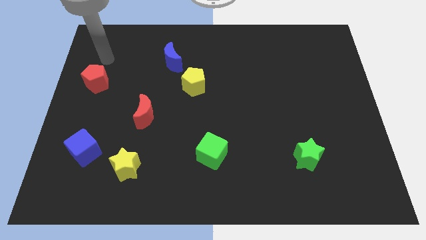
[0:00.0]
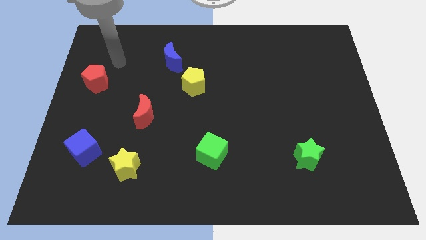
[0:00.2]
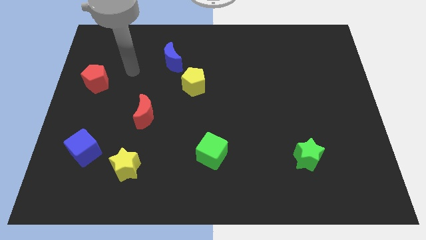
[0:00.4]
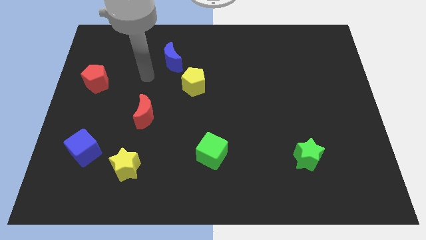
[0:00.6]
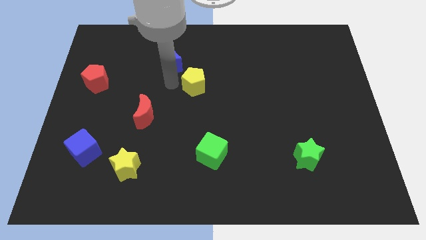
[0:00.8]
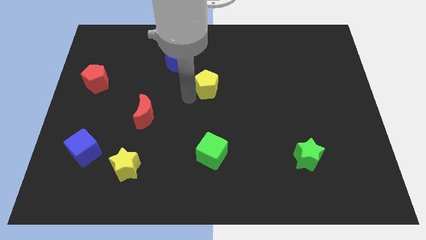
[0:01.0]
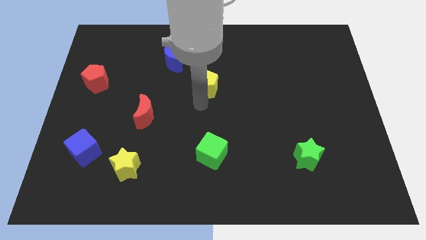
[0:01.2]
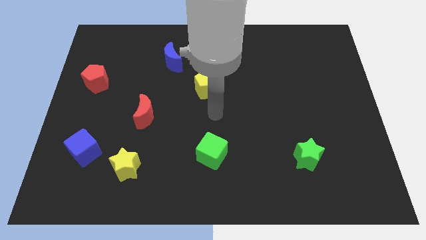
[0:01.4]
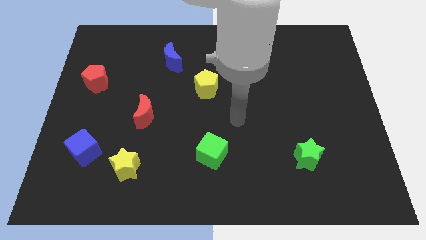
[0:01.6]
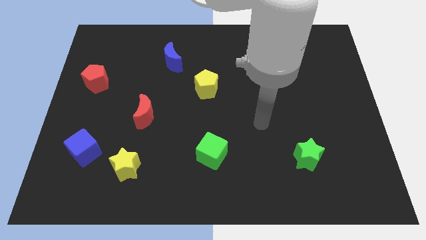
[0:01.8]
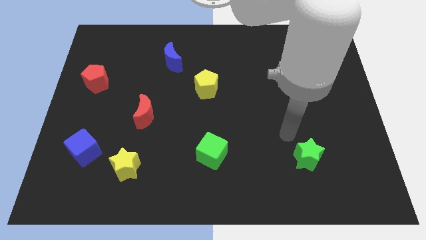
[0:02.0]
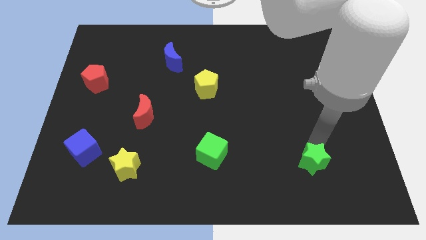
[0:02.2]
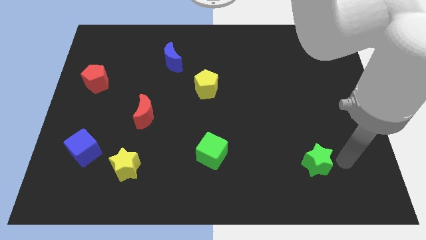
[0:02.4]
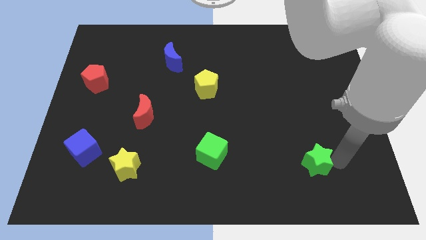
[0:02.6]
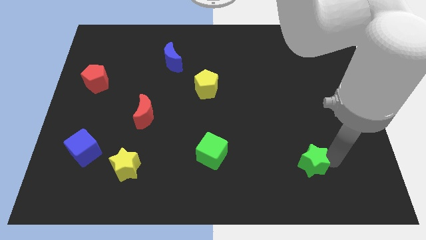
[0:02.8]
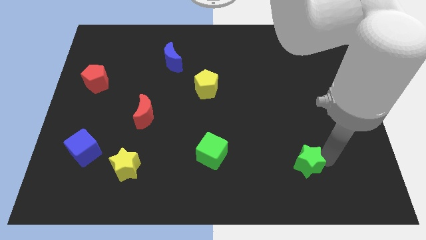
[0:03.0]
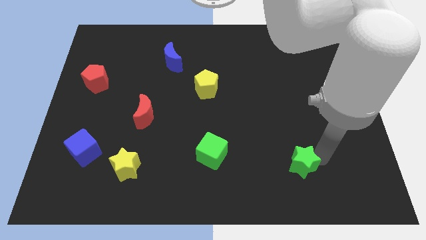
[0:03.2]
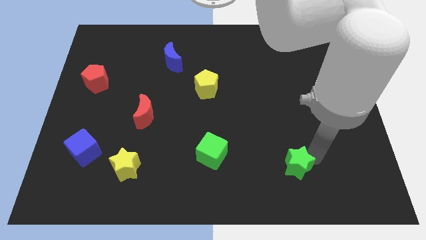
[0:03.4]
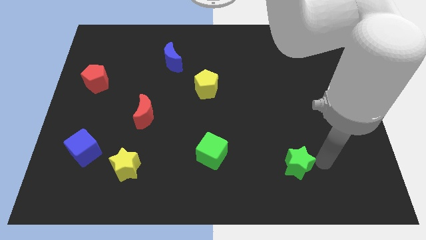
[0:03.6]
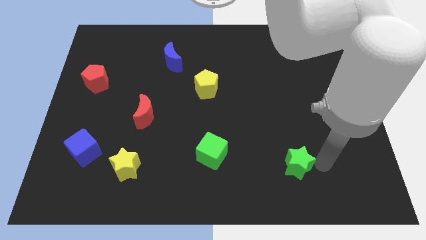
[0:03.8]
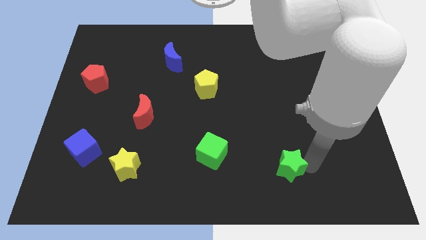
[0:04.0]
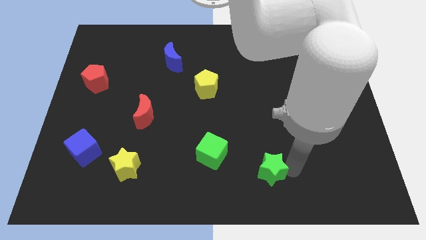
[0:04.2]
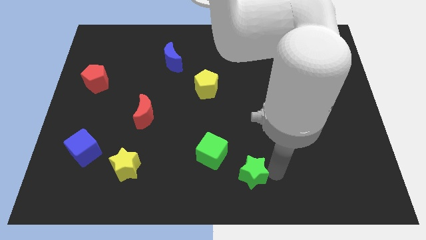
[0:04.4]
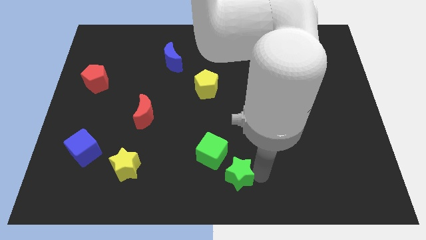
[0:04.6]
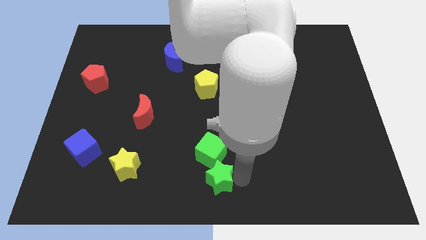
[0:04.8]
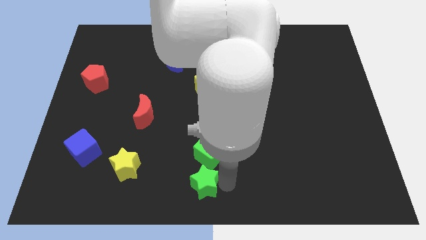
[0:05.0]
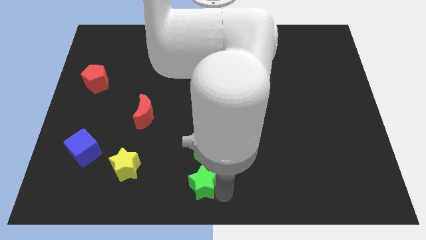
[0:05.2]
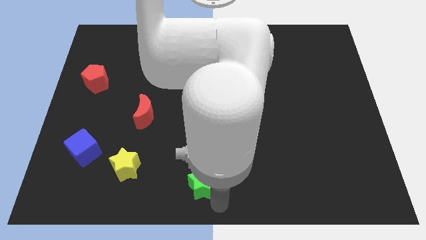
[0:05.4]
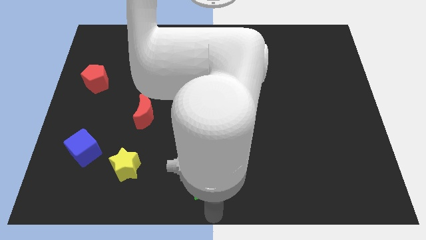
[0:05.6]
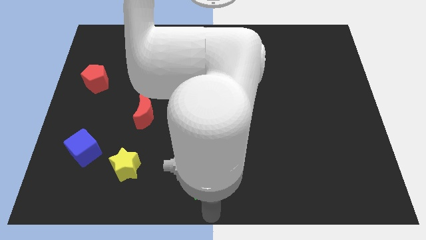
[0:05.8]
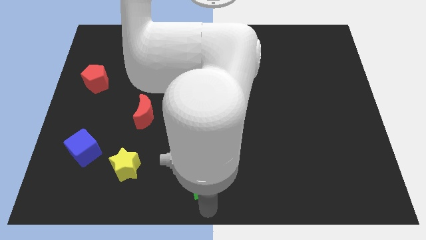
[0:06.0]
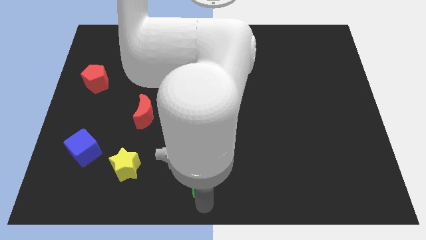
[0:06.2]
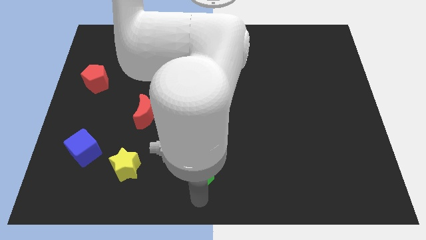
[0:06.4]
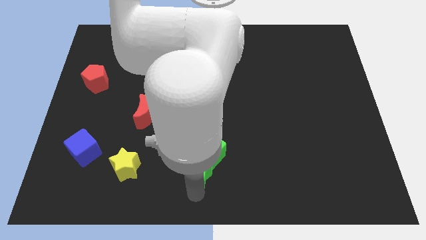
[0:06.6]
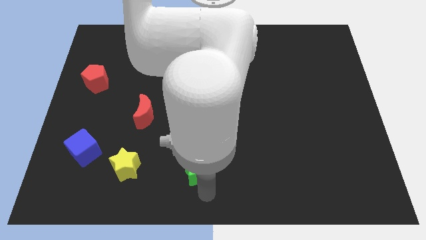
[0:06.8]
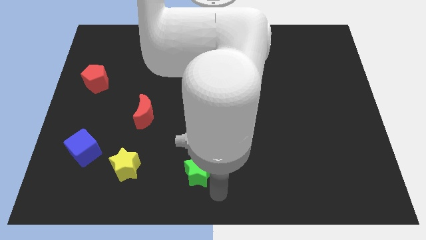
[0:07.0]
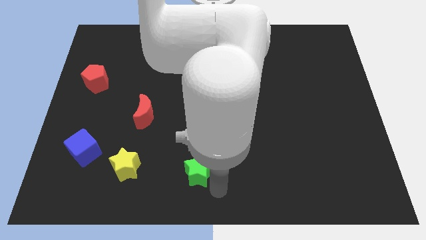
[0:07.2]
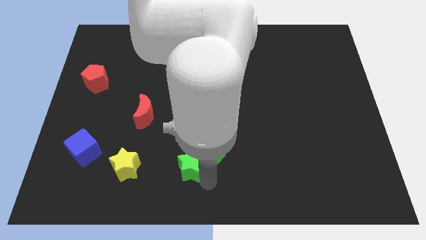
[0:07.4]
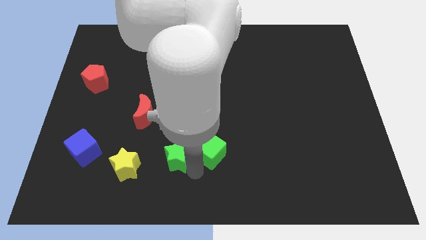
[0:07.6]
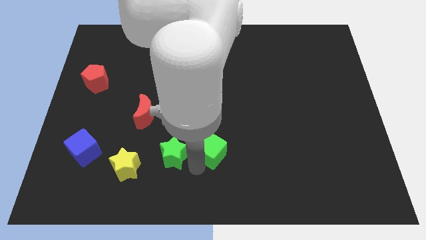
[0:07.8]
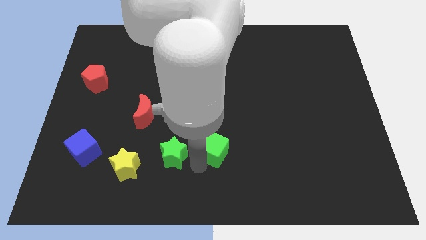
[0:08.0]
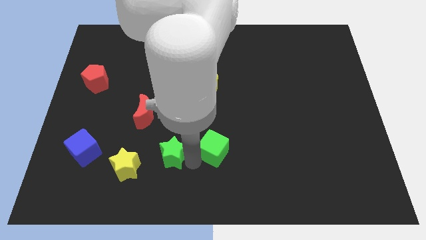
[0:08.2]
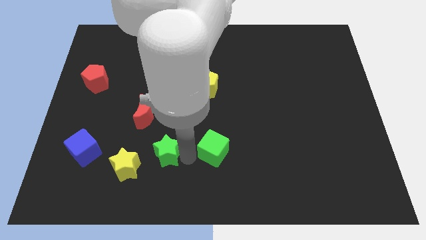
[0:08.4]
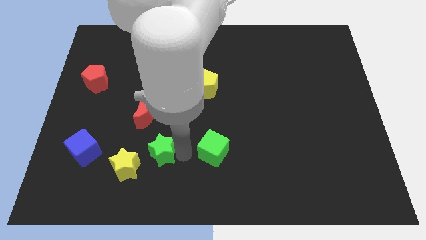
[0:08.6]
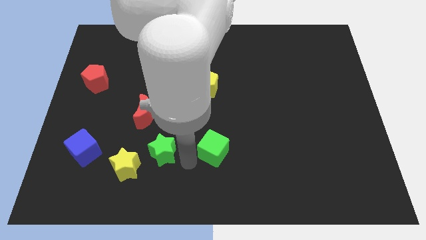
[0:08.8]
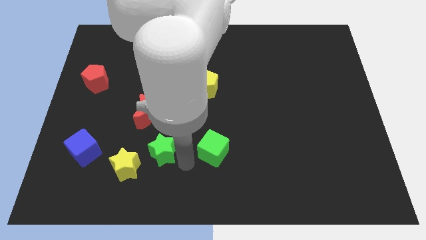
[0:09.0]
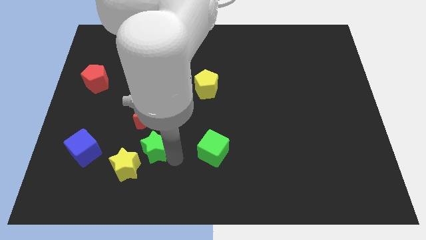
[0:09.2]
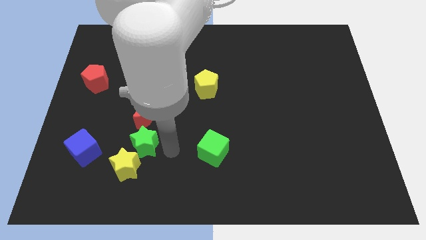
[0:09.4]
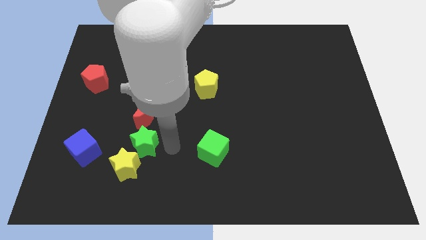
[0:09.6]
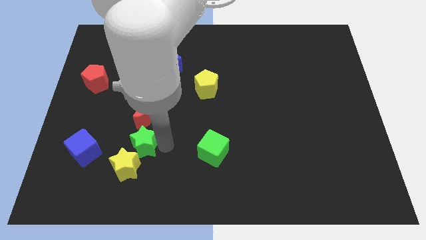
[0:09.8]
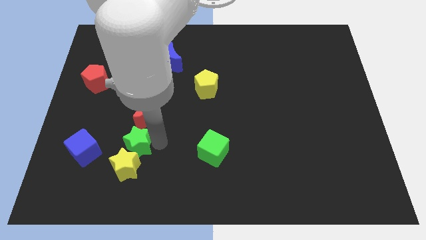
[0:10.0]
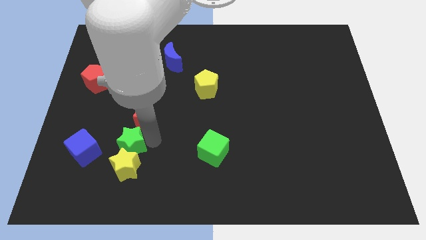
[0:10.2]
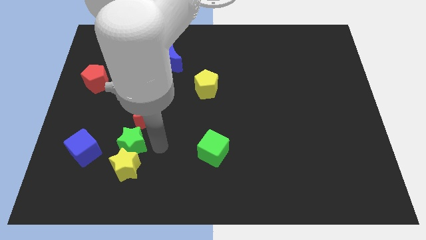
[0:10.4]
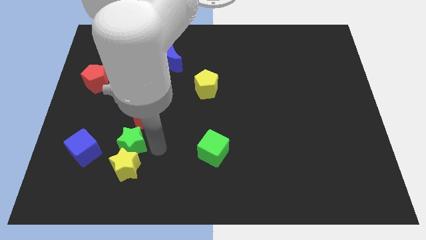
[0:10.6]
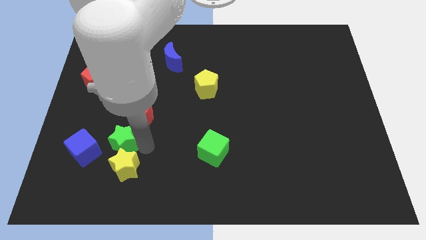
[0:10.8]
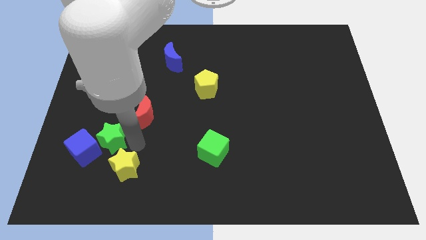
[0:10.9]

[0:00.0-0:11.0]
push the green star next to the blue cube

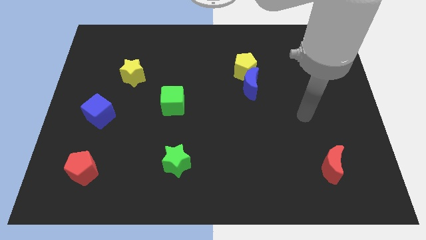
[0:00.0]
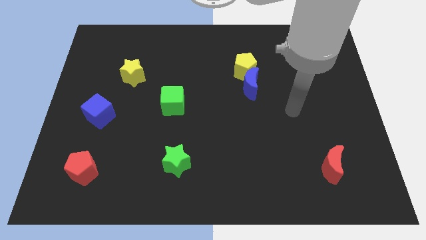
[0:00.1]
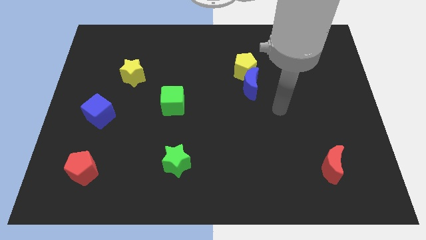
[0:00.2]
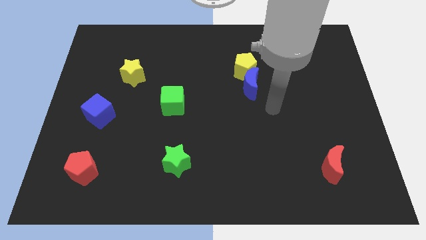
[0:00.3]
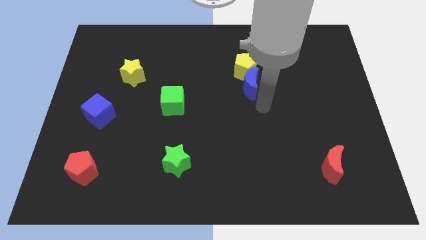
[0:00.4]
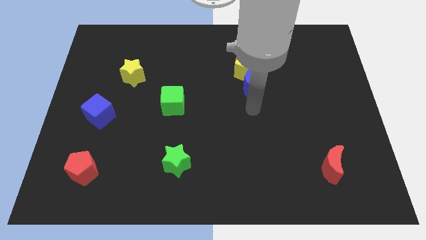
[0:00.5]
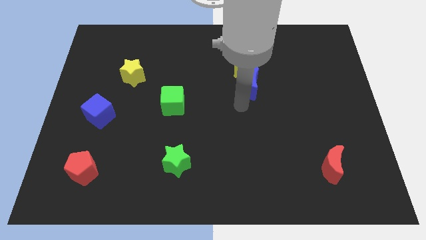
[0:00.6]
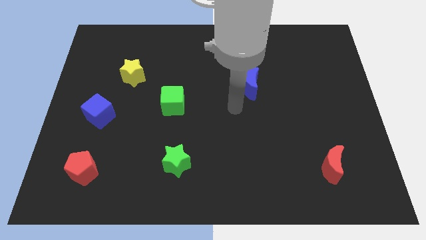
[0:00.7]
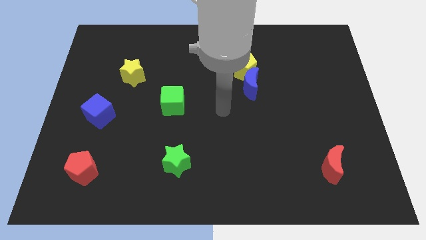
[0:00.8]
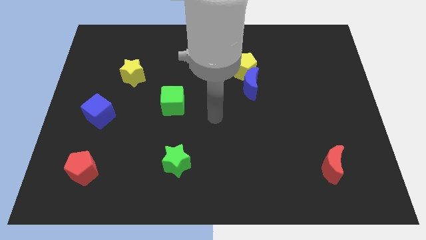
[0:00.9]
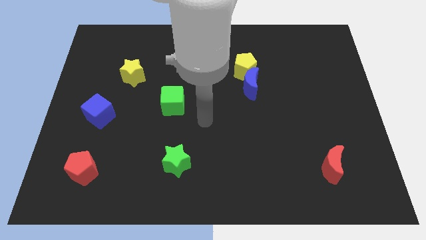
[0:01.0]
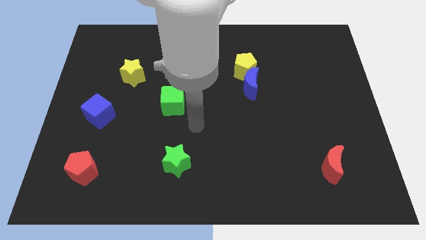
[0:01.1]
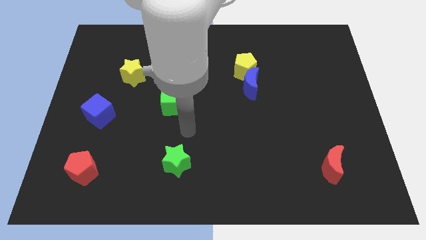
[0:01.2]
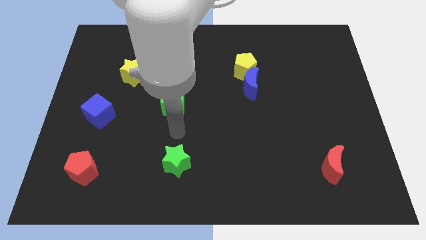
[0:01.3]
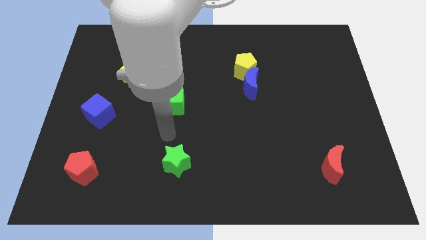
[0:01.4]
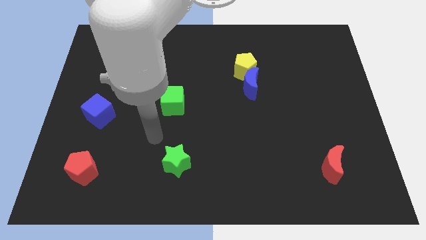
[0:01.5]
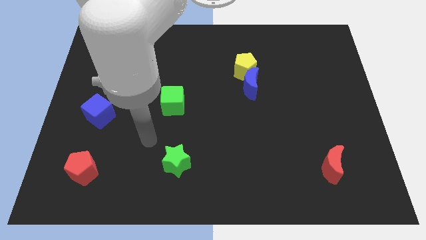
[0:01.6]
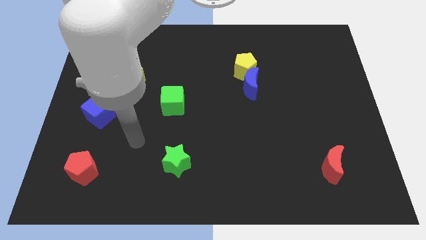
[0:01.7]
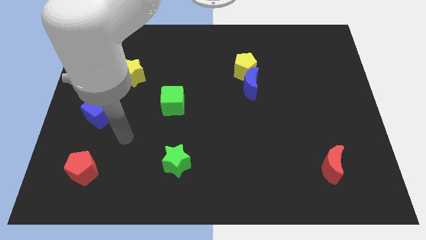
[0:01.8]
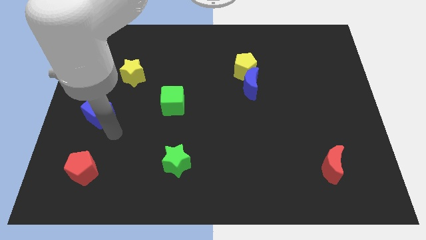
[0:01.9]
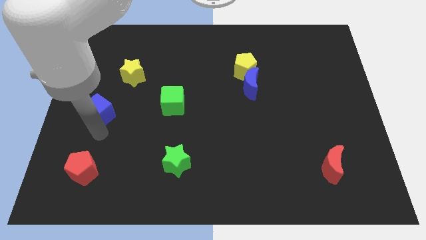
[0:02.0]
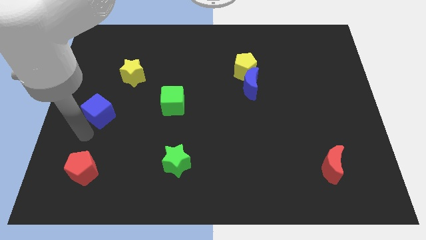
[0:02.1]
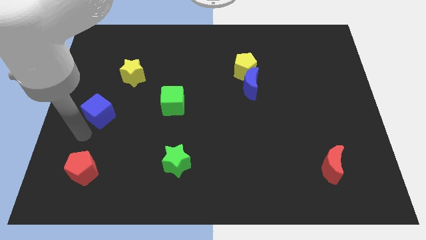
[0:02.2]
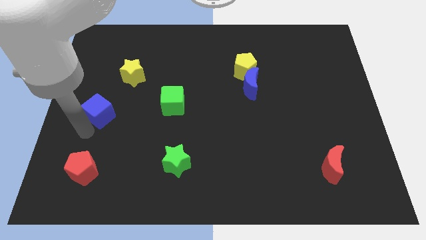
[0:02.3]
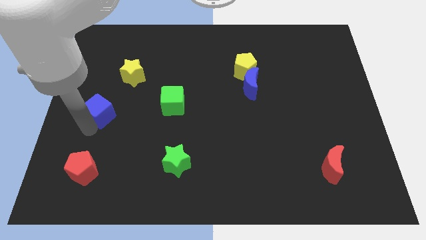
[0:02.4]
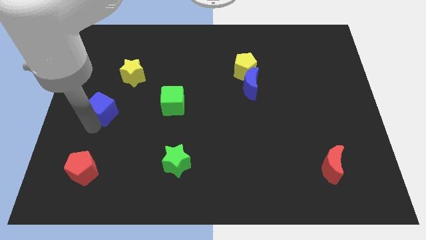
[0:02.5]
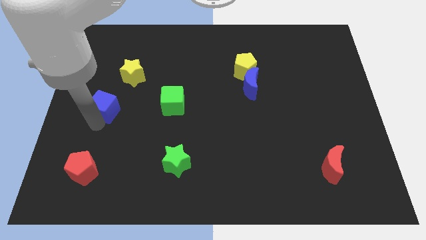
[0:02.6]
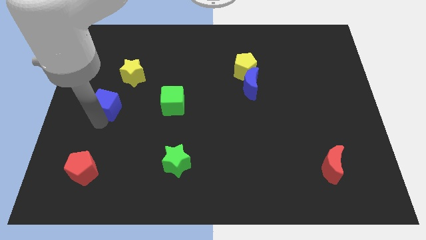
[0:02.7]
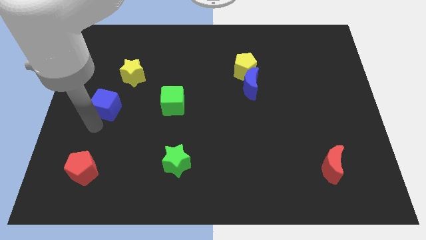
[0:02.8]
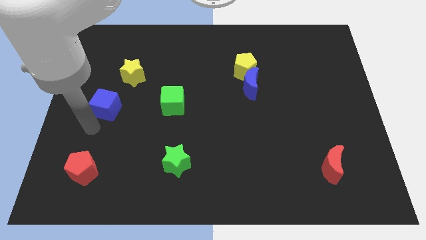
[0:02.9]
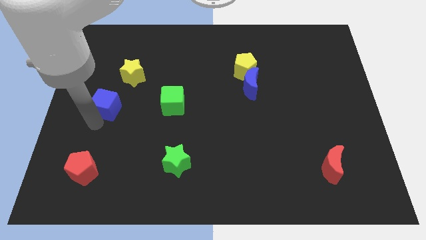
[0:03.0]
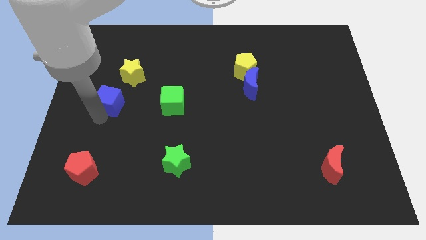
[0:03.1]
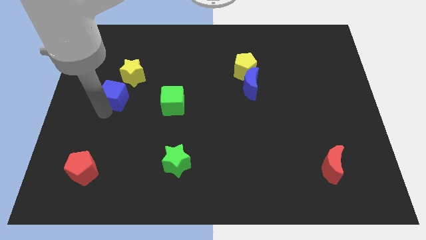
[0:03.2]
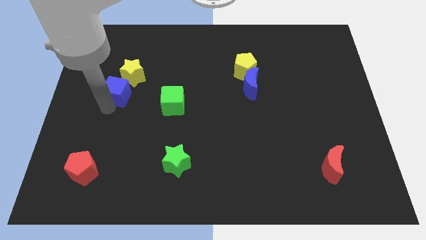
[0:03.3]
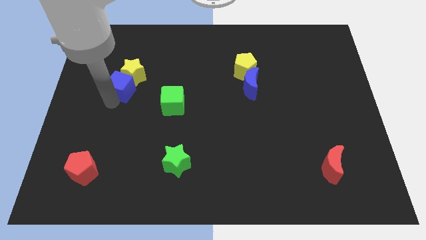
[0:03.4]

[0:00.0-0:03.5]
push the blue cube towards the yellow star
